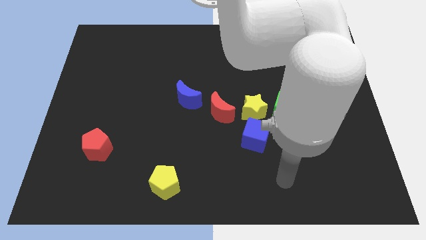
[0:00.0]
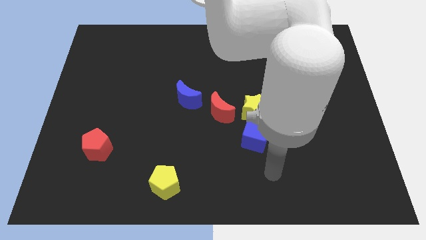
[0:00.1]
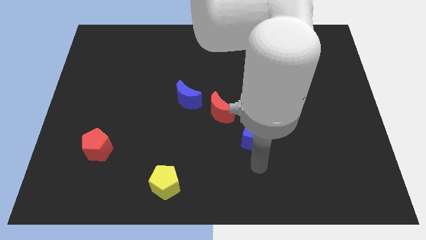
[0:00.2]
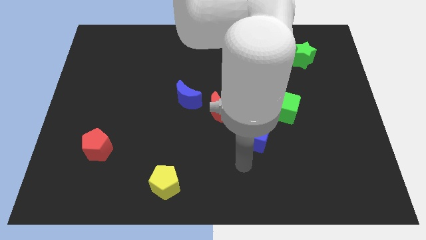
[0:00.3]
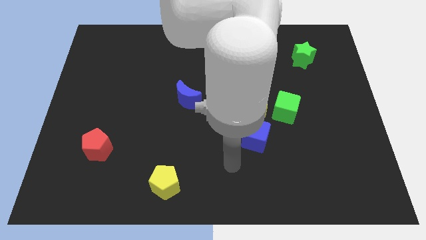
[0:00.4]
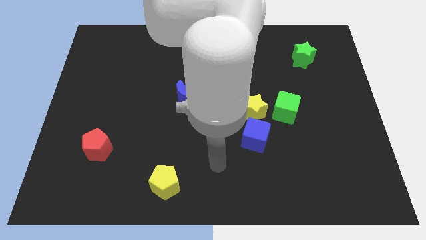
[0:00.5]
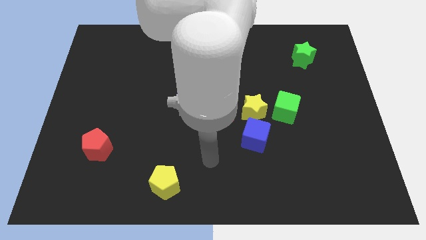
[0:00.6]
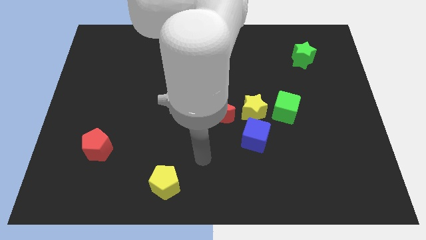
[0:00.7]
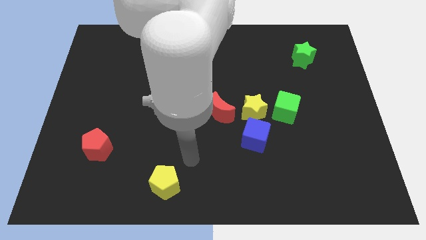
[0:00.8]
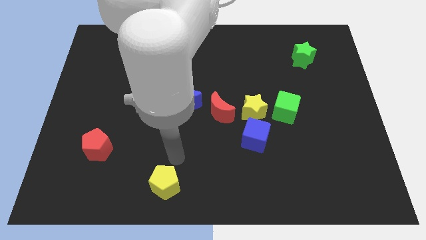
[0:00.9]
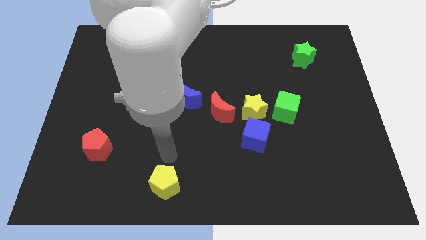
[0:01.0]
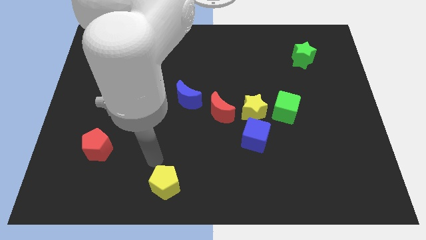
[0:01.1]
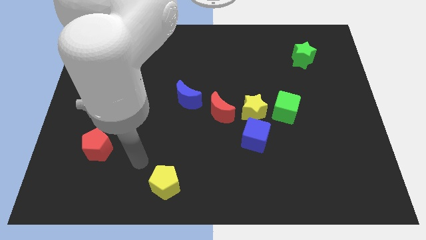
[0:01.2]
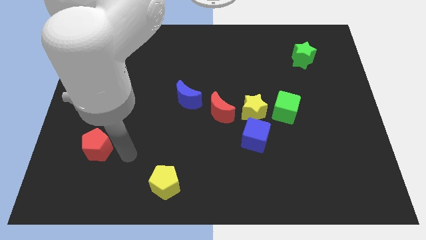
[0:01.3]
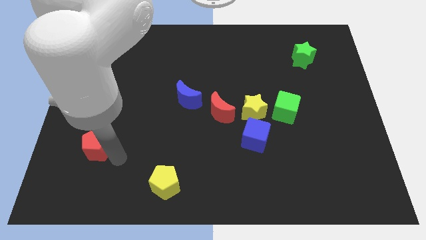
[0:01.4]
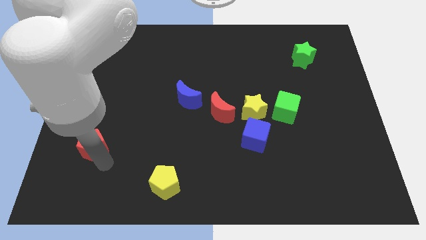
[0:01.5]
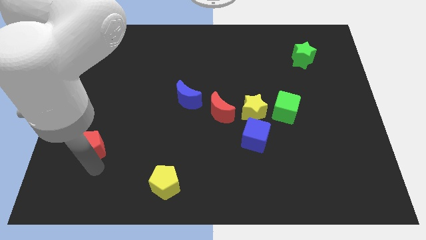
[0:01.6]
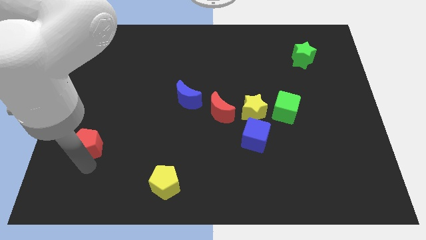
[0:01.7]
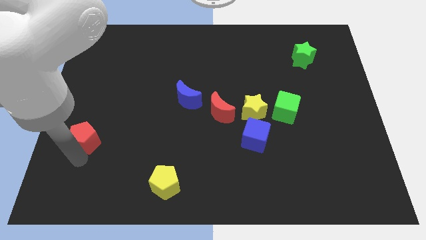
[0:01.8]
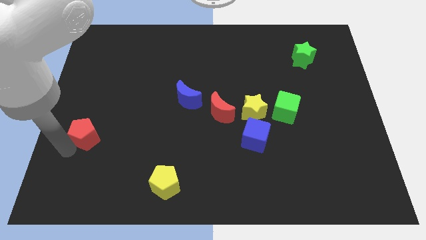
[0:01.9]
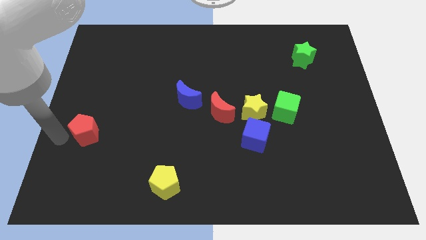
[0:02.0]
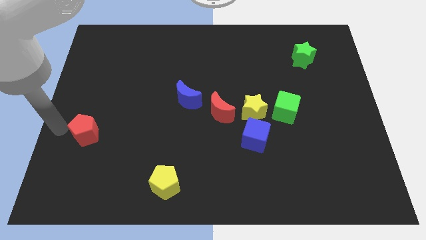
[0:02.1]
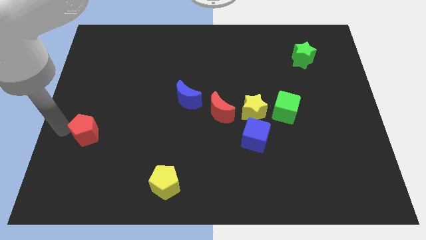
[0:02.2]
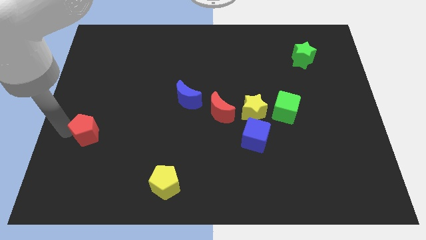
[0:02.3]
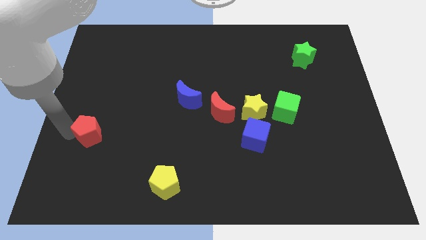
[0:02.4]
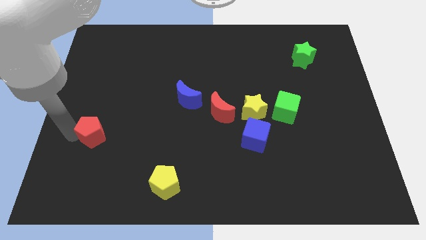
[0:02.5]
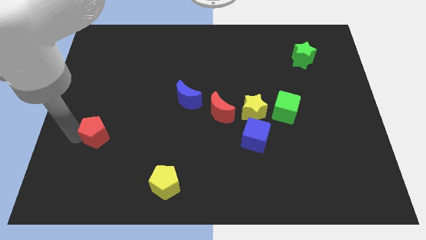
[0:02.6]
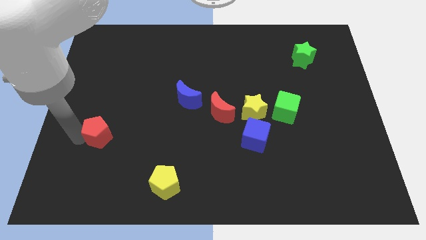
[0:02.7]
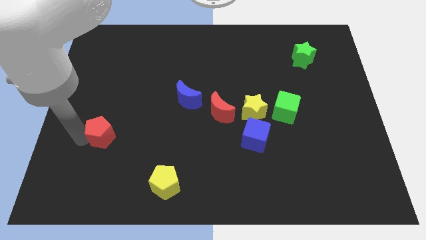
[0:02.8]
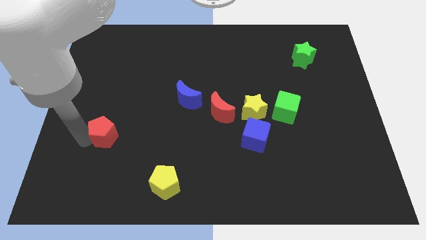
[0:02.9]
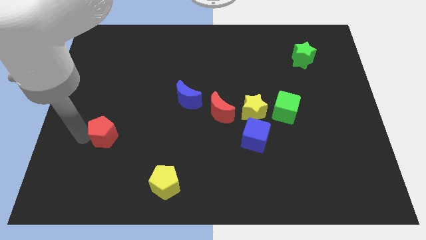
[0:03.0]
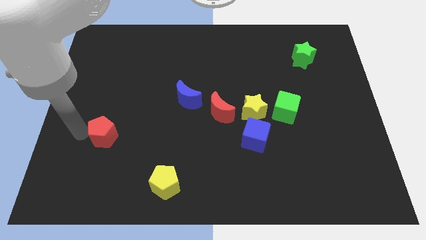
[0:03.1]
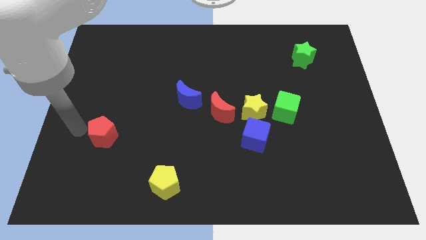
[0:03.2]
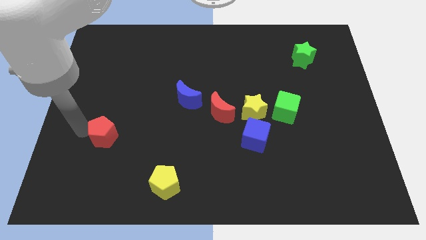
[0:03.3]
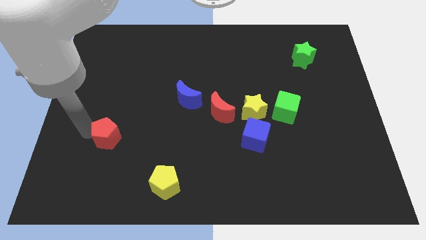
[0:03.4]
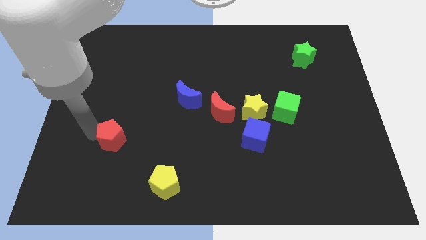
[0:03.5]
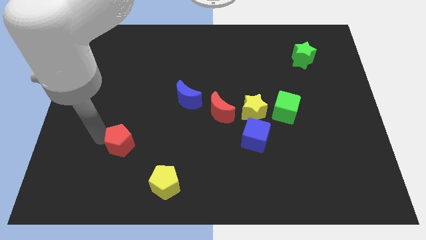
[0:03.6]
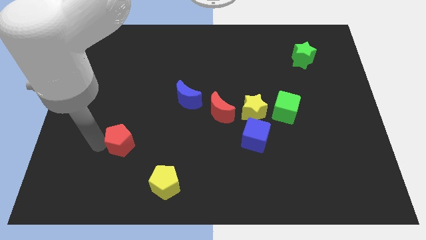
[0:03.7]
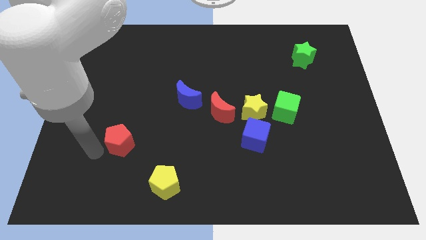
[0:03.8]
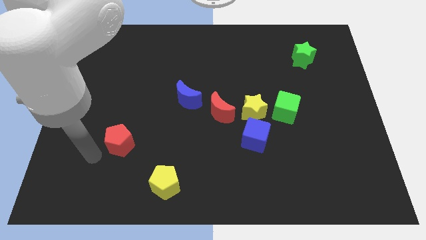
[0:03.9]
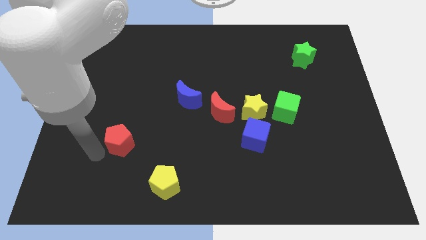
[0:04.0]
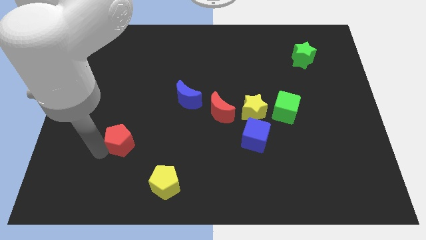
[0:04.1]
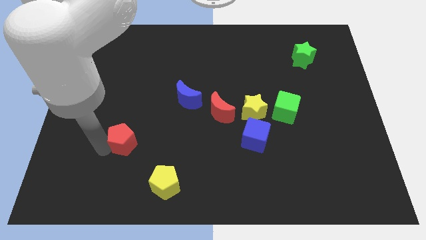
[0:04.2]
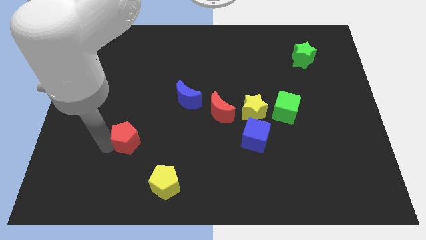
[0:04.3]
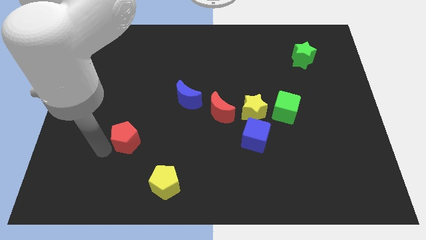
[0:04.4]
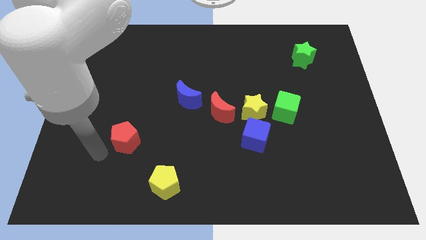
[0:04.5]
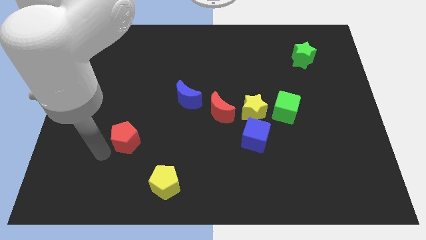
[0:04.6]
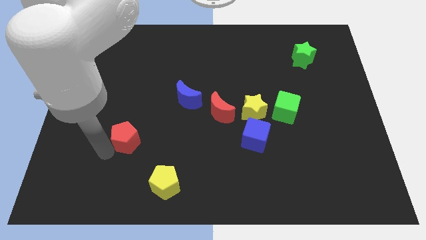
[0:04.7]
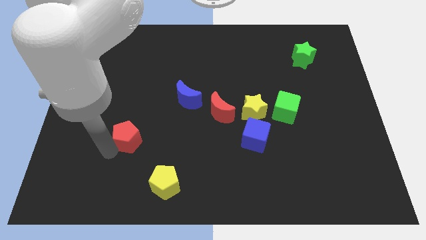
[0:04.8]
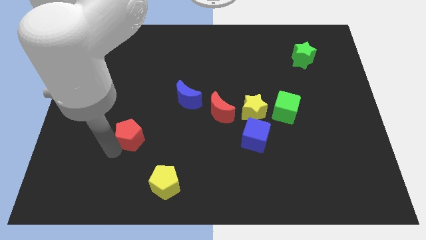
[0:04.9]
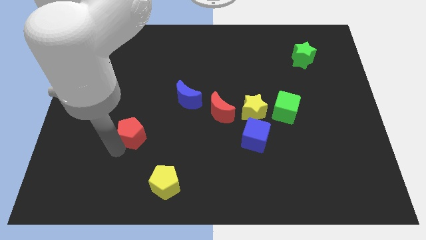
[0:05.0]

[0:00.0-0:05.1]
push the red pentagon a little bit upwards and then right

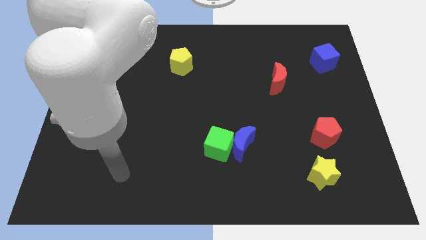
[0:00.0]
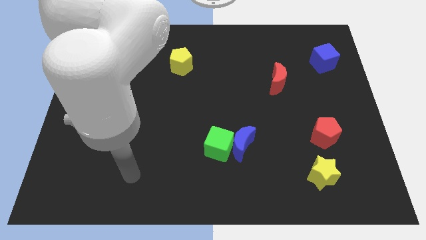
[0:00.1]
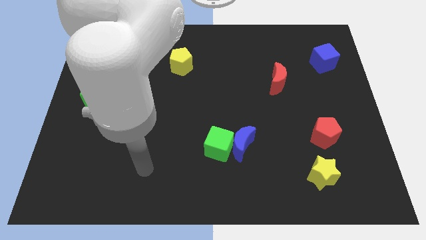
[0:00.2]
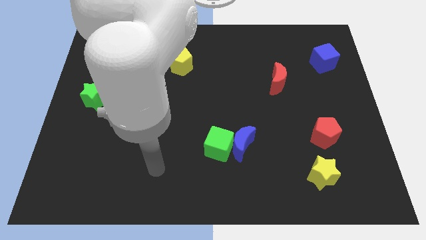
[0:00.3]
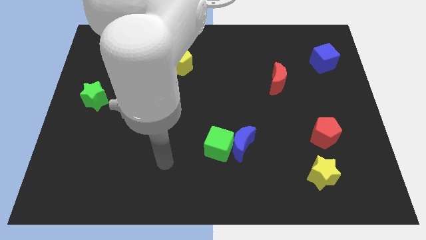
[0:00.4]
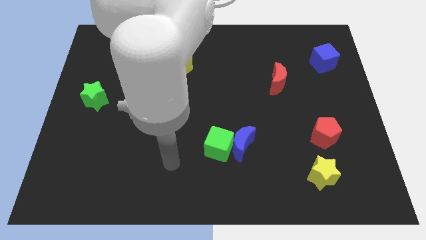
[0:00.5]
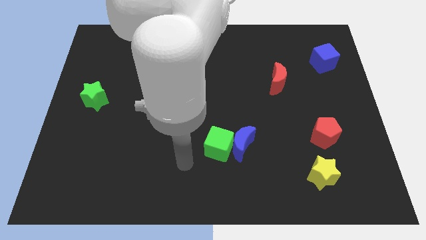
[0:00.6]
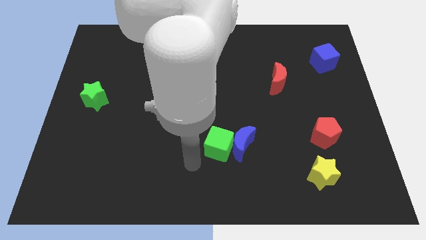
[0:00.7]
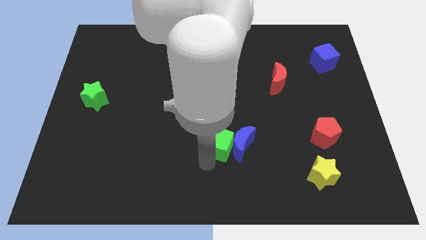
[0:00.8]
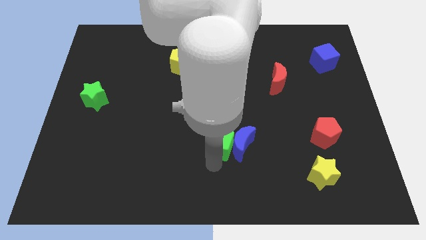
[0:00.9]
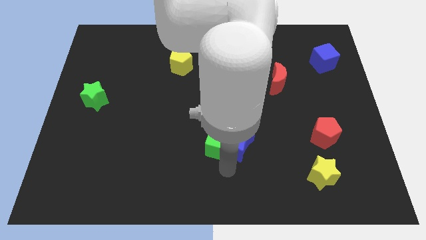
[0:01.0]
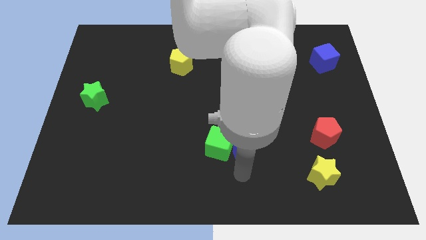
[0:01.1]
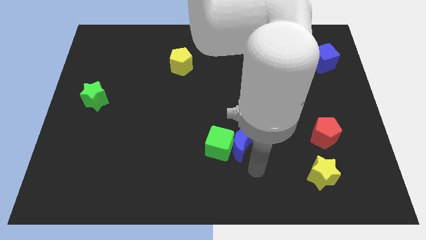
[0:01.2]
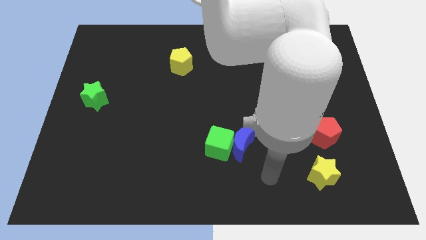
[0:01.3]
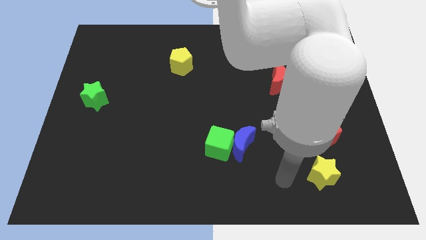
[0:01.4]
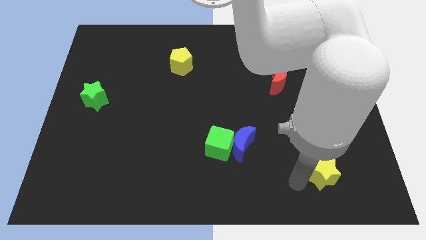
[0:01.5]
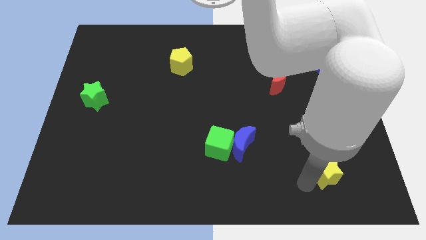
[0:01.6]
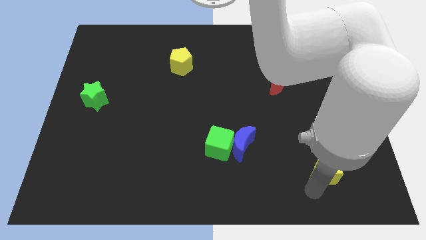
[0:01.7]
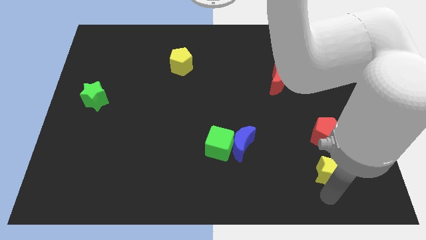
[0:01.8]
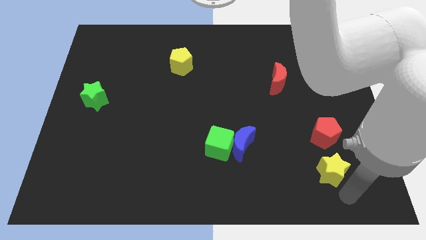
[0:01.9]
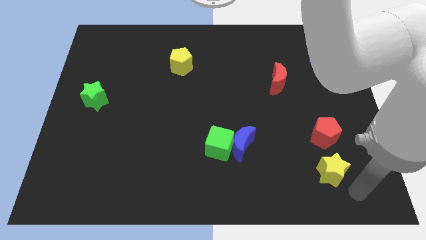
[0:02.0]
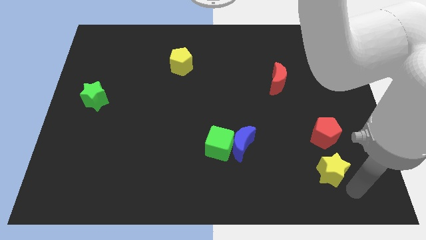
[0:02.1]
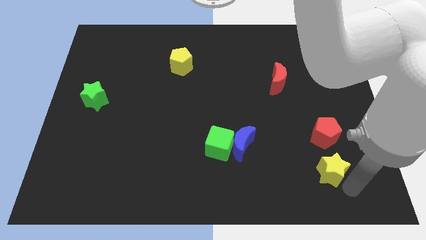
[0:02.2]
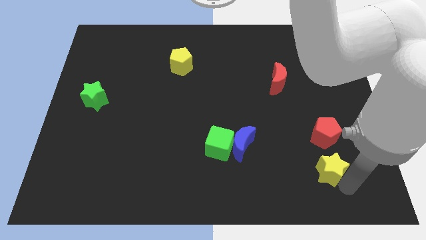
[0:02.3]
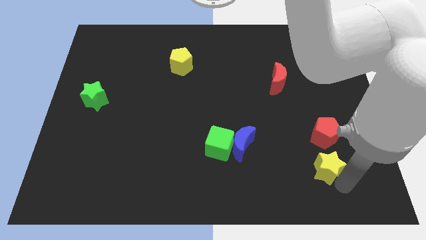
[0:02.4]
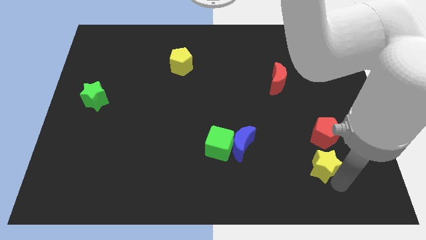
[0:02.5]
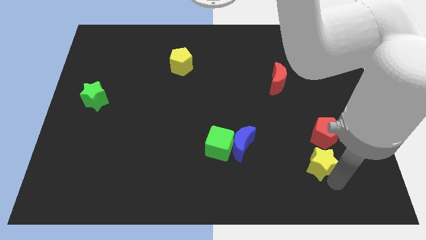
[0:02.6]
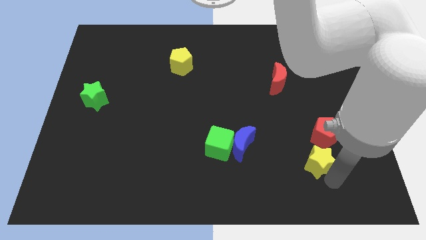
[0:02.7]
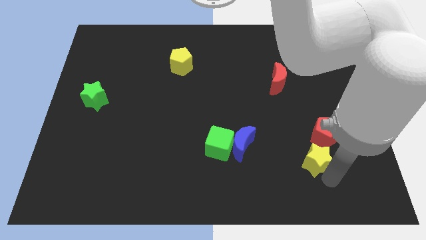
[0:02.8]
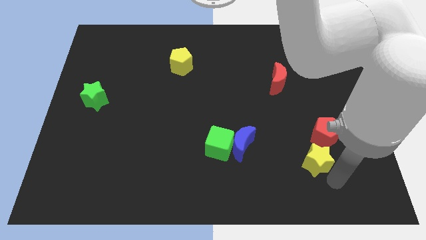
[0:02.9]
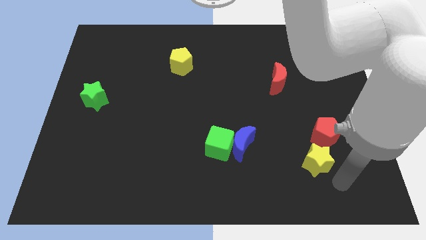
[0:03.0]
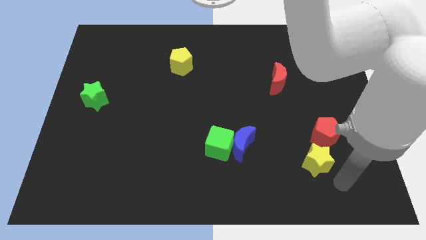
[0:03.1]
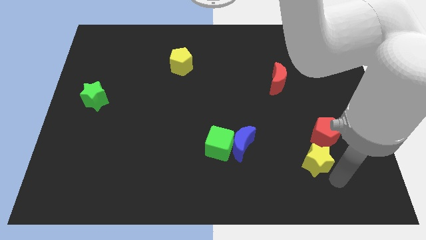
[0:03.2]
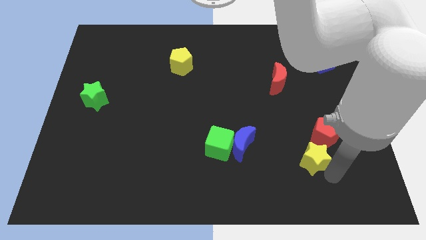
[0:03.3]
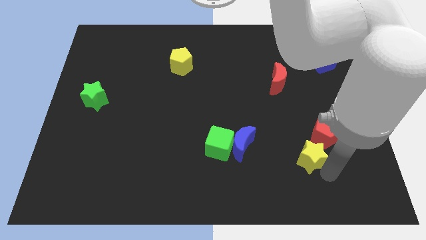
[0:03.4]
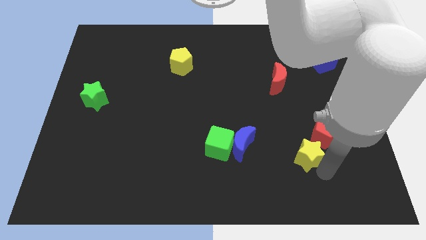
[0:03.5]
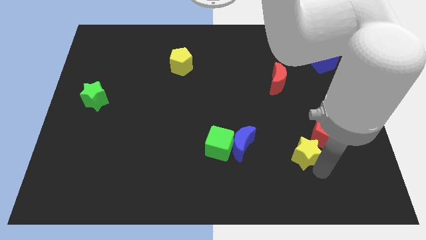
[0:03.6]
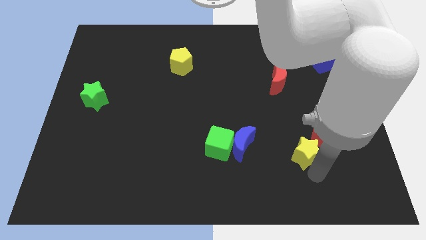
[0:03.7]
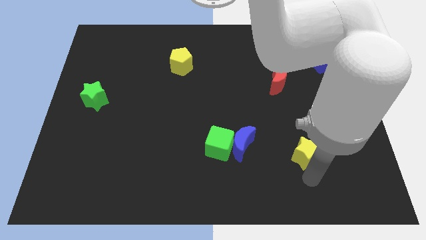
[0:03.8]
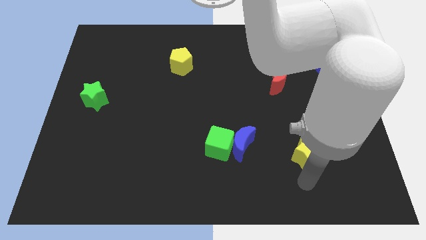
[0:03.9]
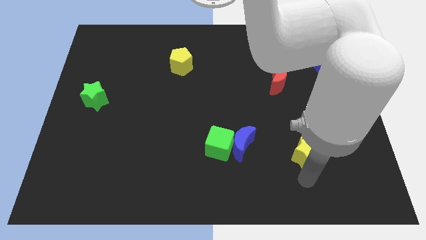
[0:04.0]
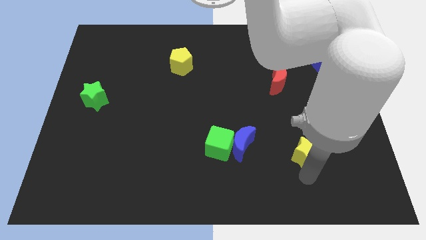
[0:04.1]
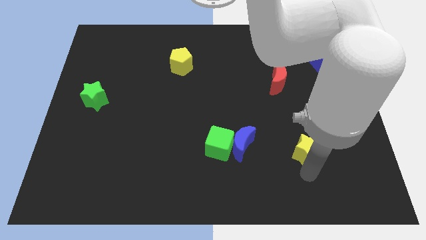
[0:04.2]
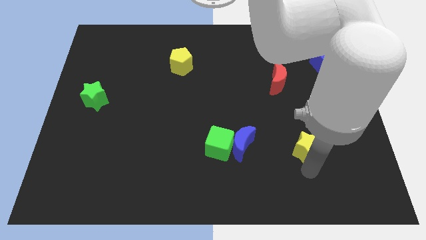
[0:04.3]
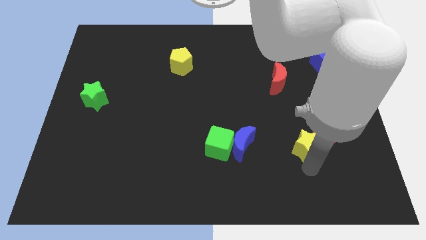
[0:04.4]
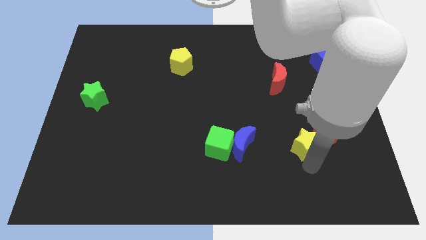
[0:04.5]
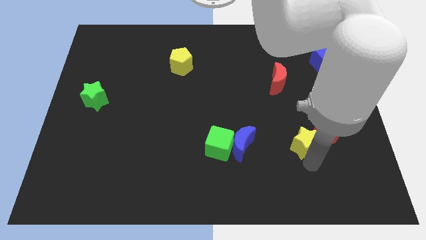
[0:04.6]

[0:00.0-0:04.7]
push the yellow star a bit upwards
